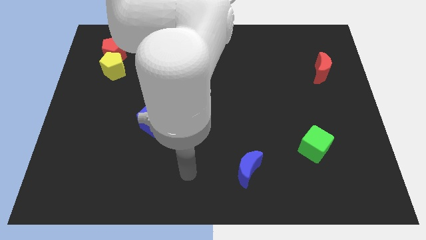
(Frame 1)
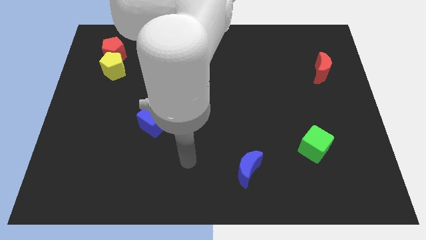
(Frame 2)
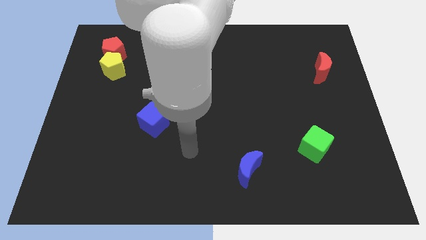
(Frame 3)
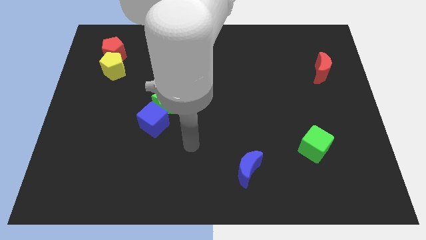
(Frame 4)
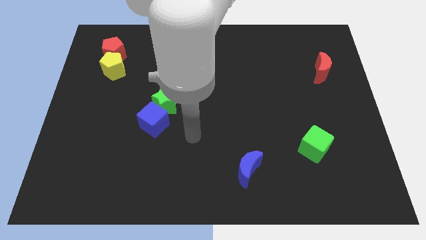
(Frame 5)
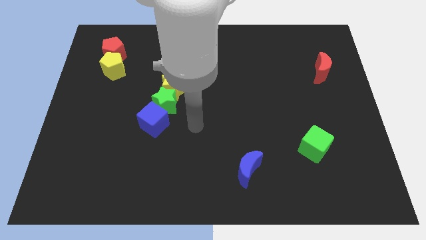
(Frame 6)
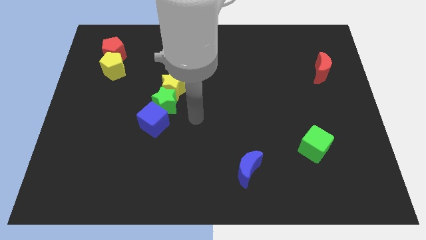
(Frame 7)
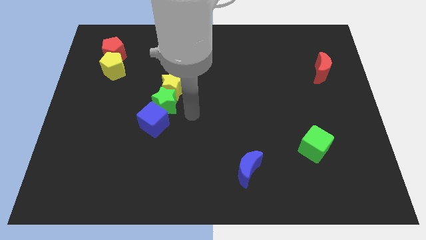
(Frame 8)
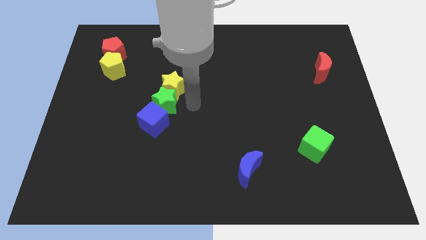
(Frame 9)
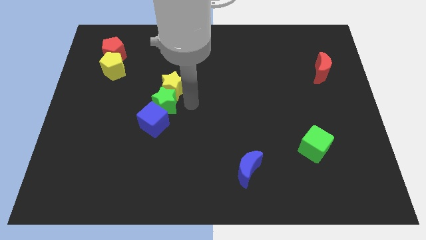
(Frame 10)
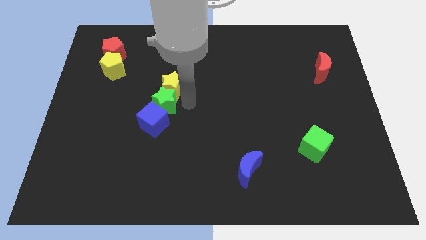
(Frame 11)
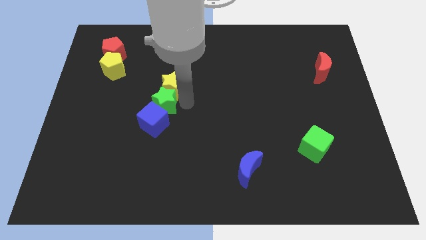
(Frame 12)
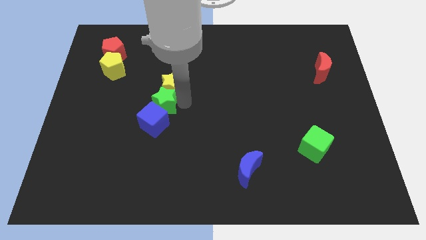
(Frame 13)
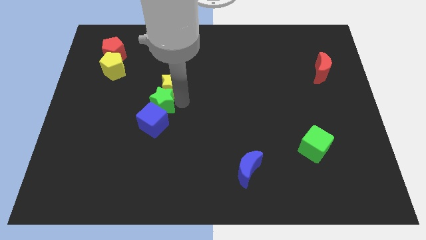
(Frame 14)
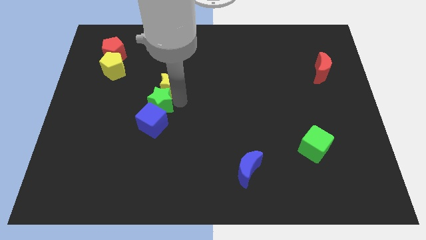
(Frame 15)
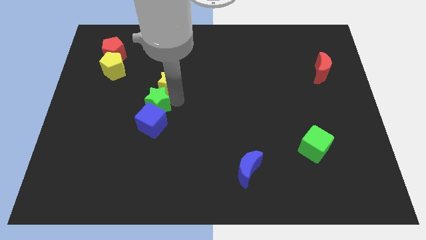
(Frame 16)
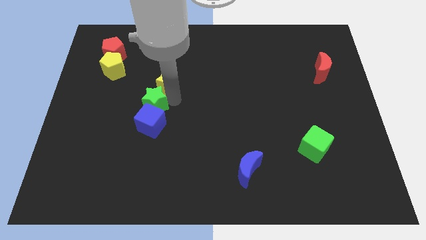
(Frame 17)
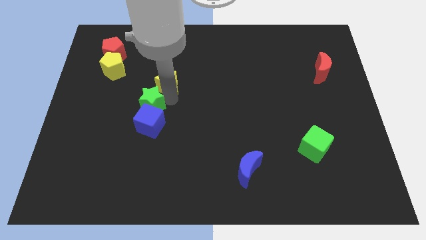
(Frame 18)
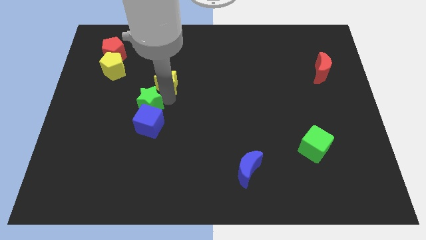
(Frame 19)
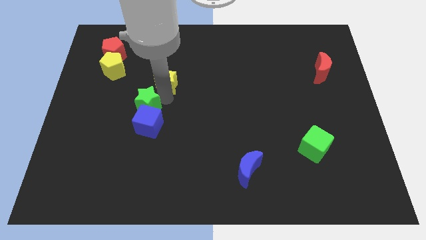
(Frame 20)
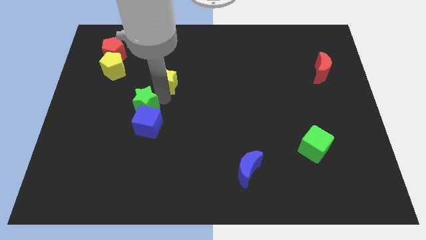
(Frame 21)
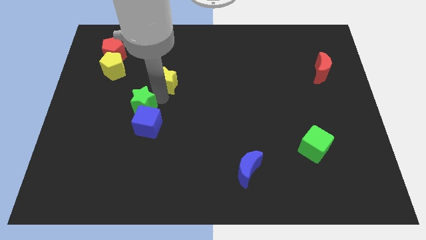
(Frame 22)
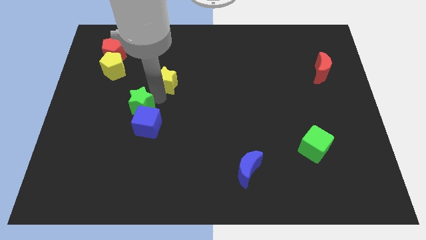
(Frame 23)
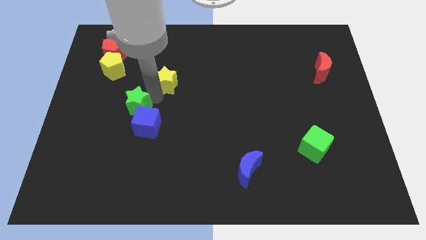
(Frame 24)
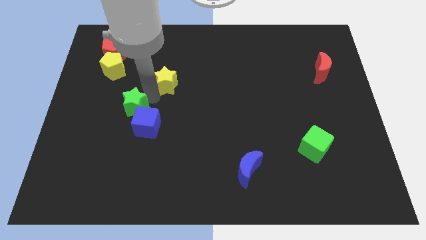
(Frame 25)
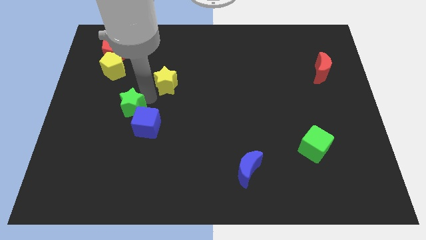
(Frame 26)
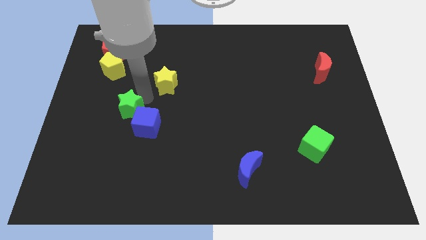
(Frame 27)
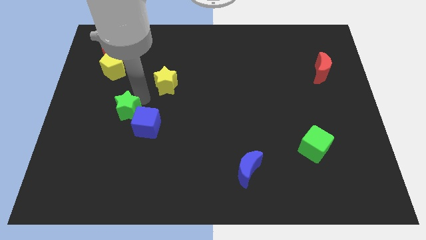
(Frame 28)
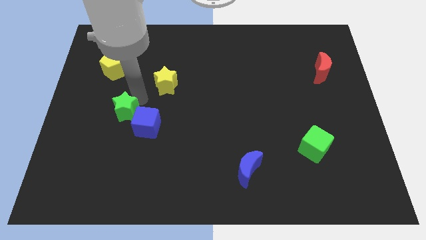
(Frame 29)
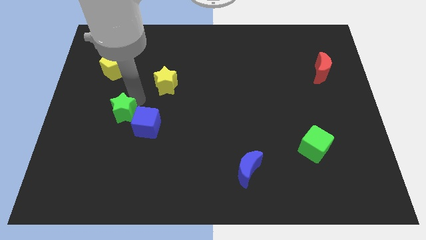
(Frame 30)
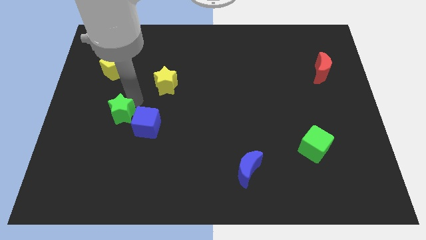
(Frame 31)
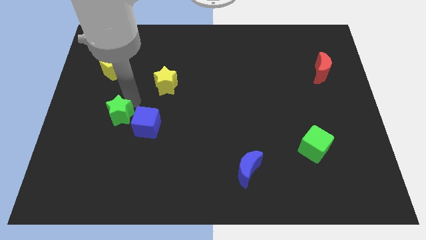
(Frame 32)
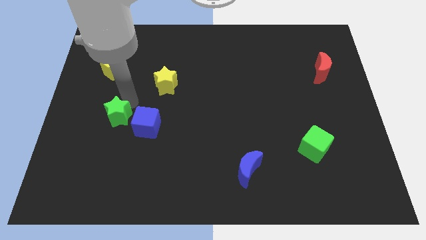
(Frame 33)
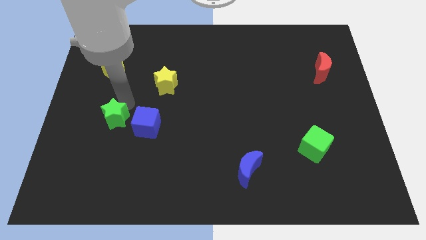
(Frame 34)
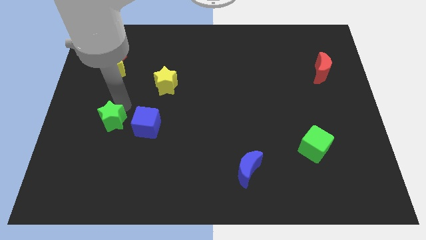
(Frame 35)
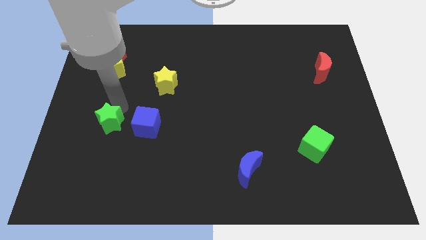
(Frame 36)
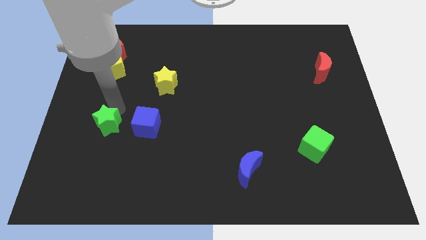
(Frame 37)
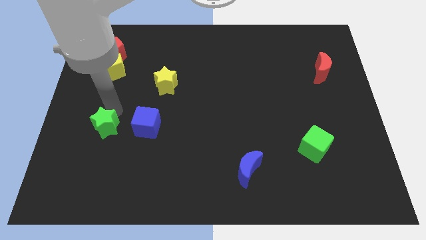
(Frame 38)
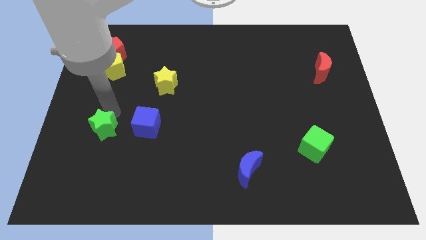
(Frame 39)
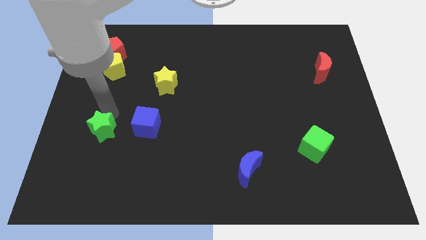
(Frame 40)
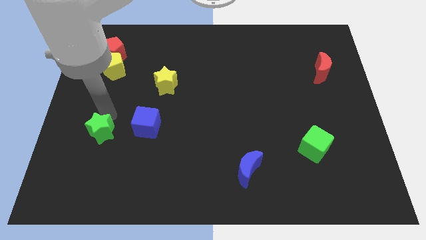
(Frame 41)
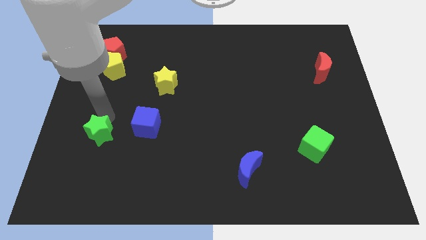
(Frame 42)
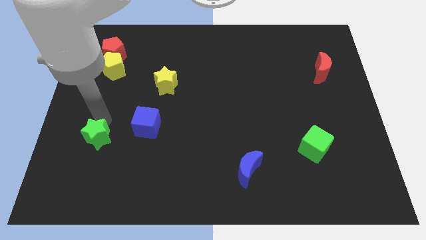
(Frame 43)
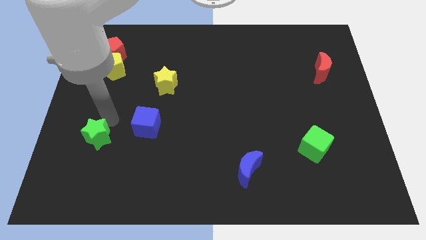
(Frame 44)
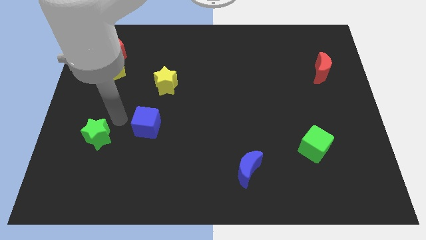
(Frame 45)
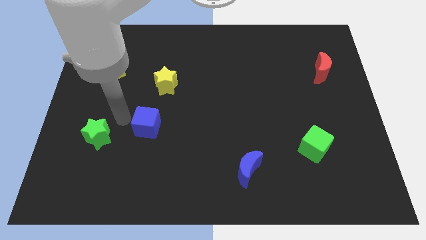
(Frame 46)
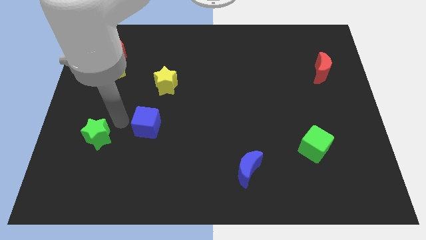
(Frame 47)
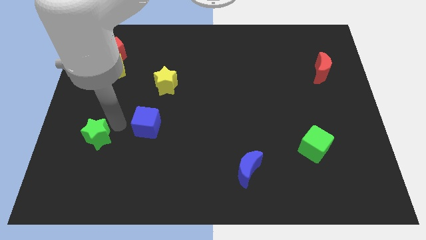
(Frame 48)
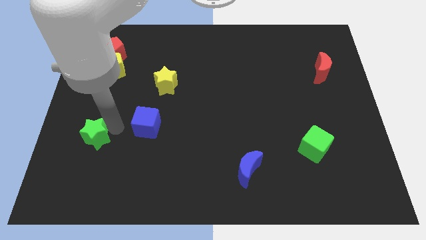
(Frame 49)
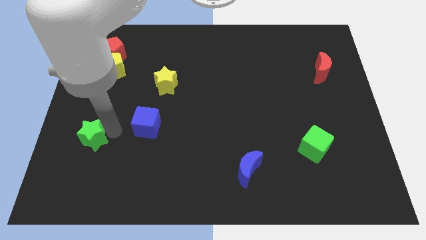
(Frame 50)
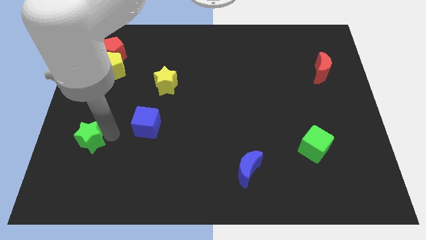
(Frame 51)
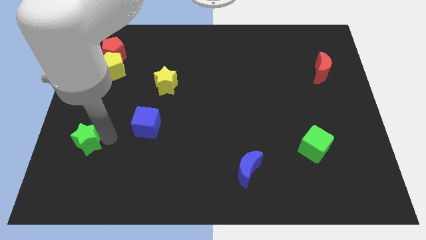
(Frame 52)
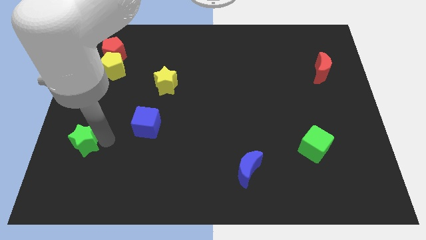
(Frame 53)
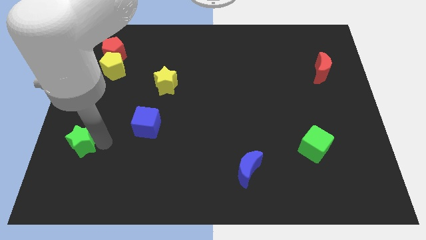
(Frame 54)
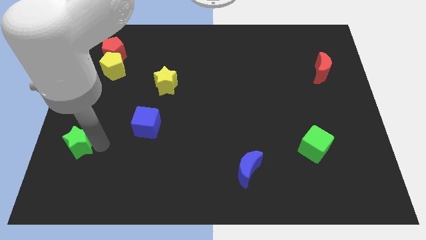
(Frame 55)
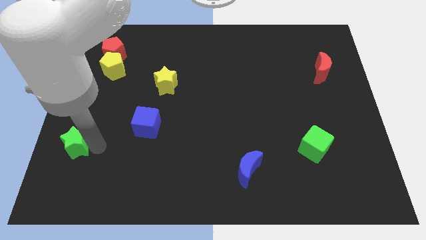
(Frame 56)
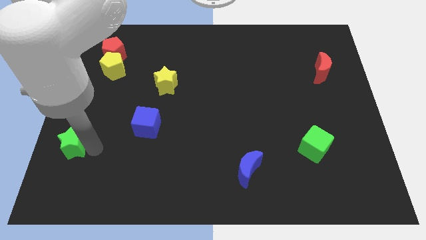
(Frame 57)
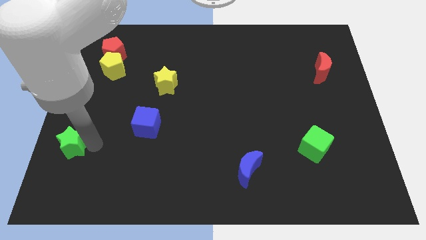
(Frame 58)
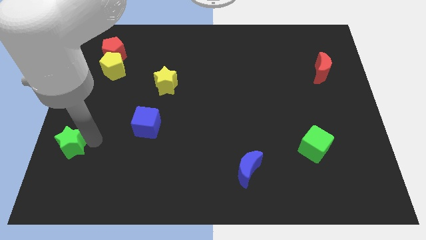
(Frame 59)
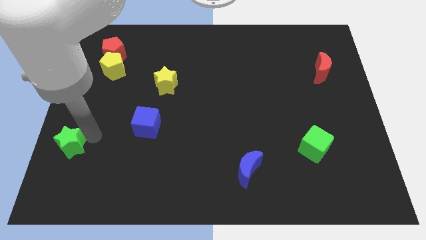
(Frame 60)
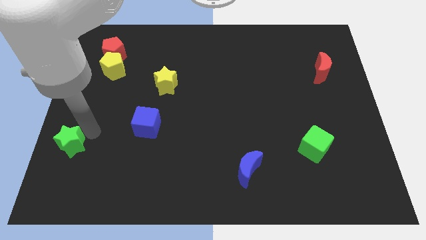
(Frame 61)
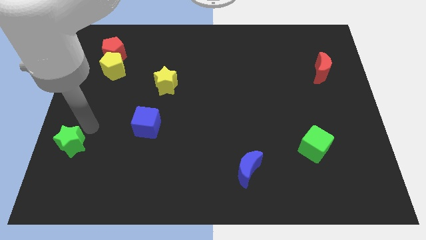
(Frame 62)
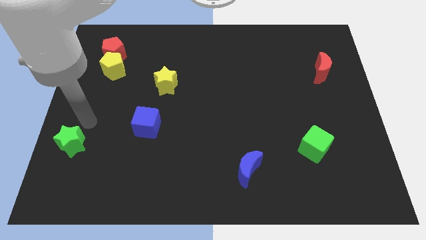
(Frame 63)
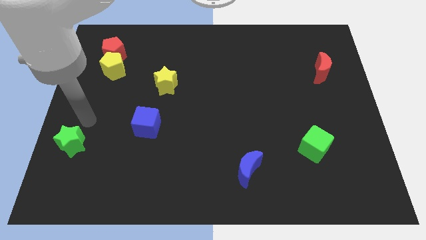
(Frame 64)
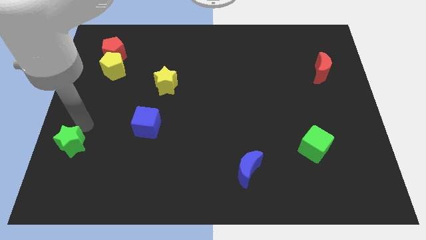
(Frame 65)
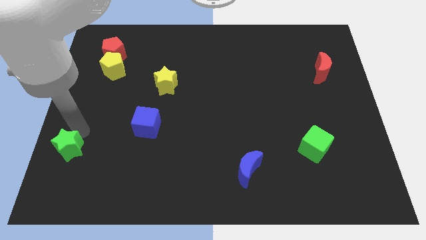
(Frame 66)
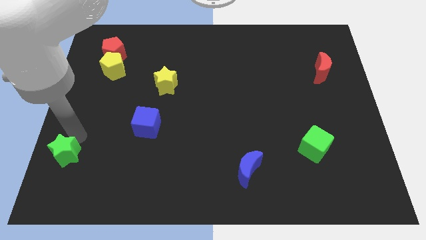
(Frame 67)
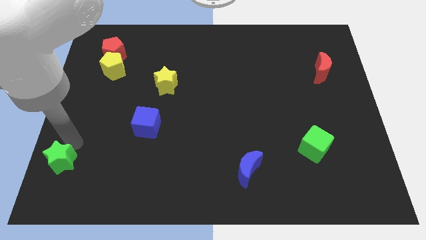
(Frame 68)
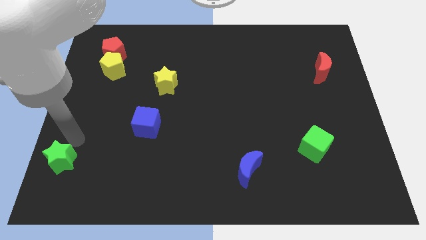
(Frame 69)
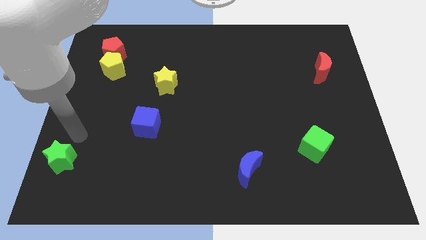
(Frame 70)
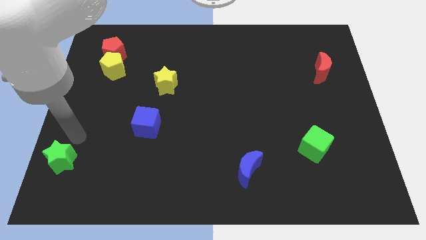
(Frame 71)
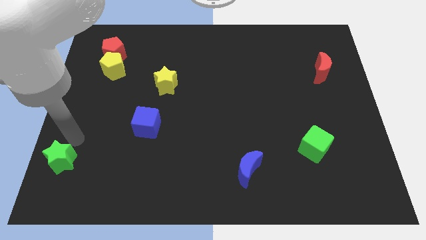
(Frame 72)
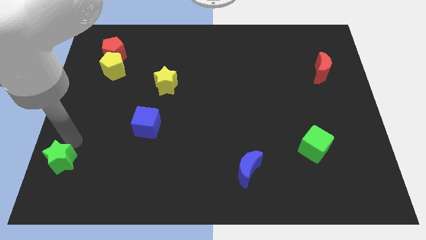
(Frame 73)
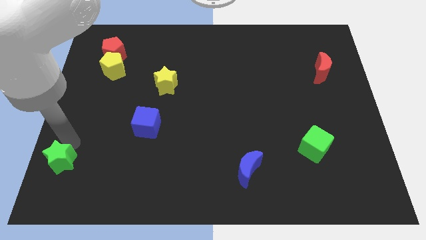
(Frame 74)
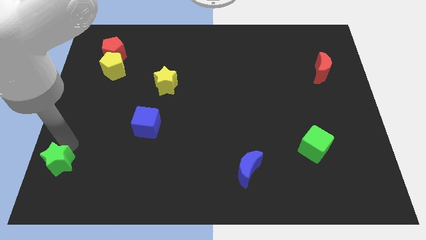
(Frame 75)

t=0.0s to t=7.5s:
put the green star to the bottom left of the board
